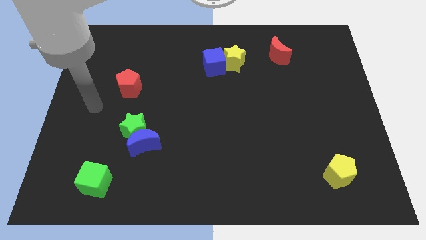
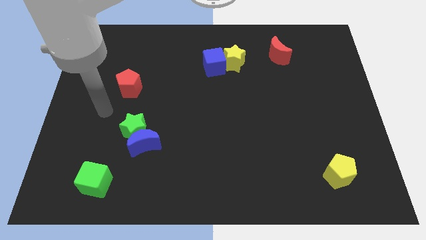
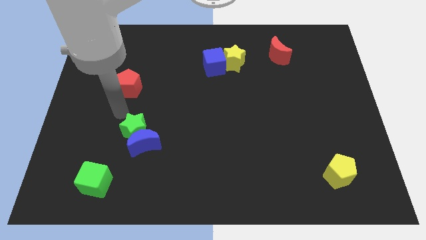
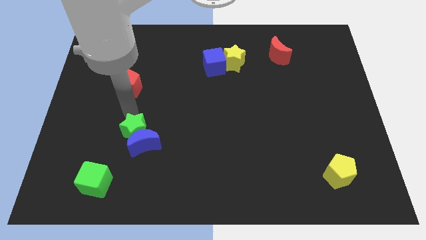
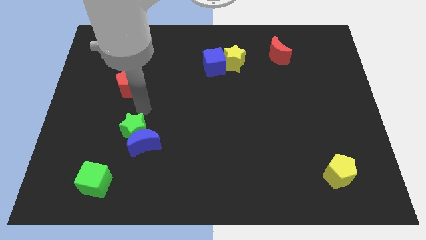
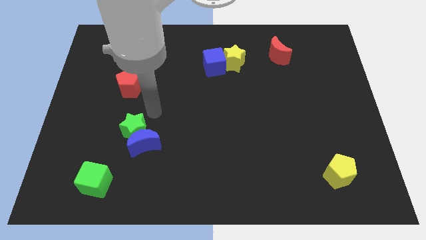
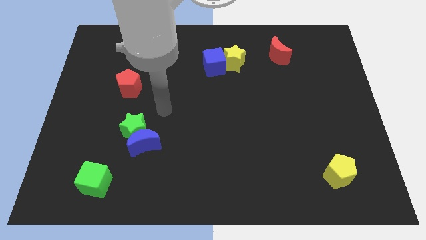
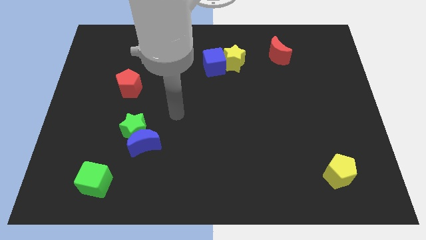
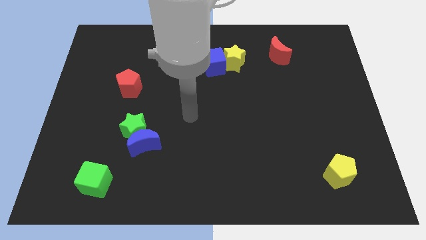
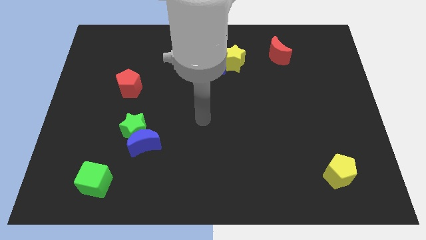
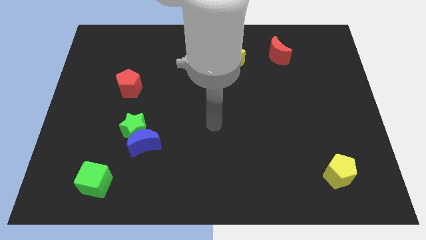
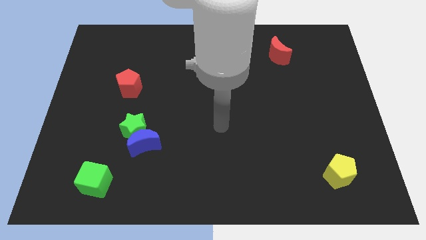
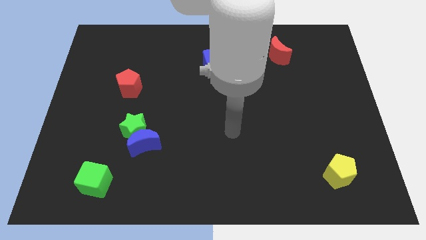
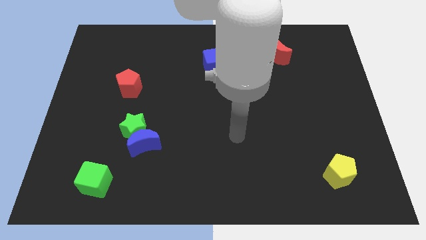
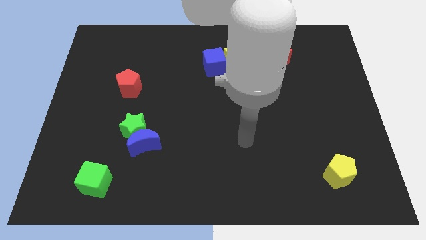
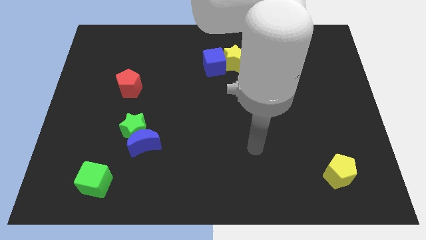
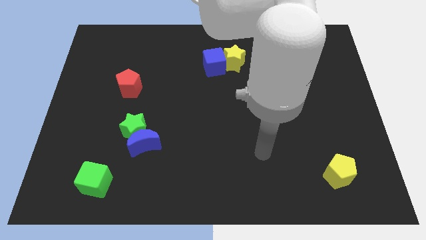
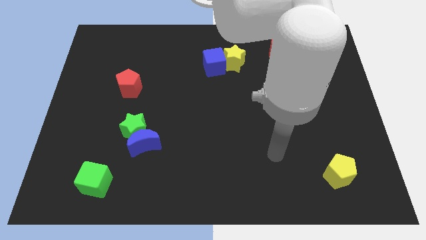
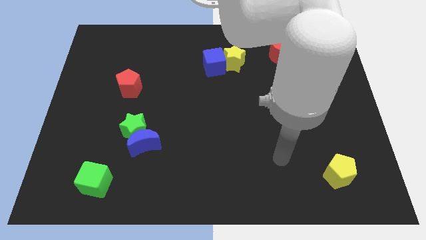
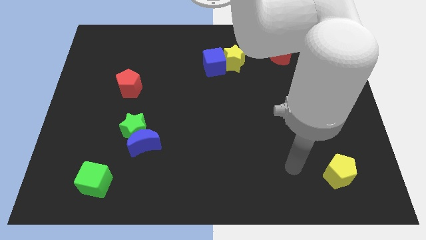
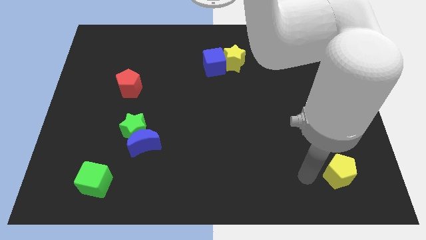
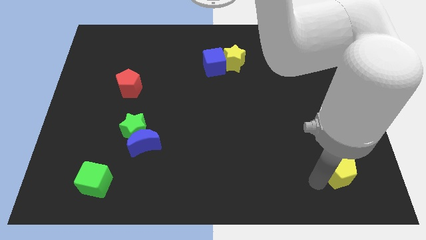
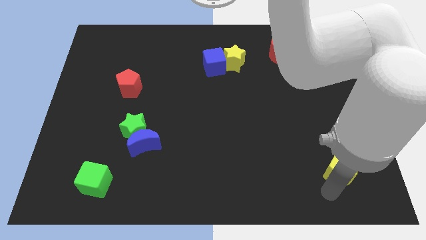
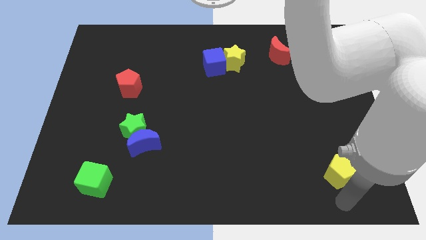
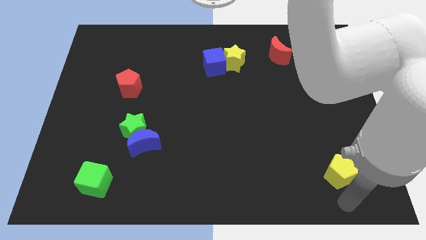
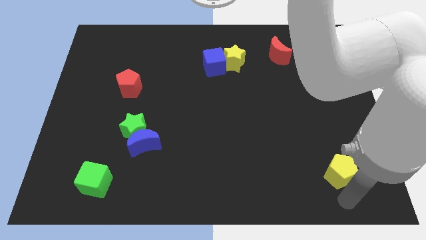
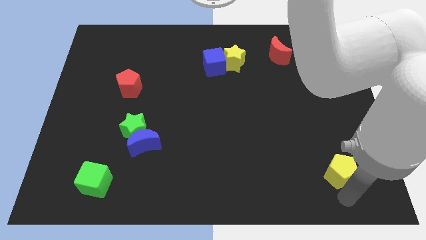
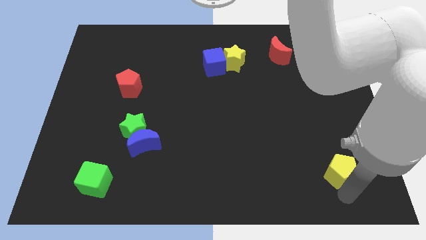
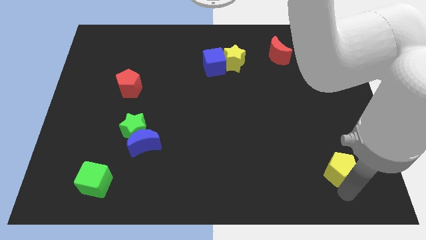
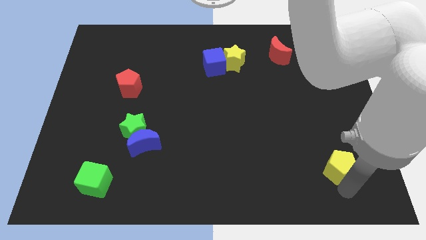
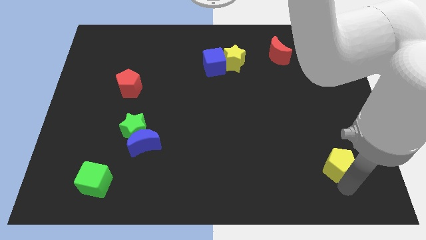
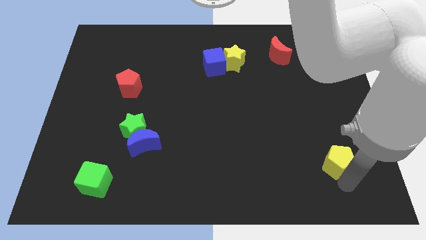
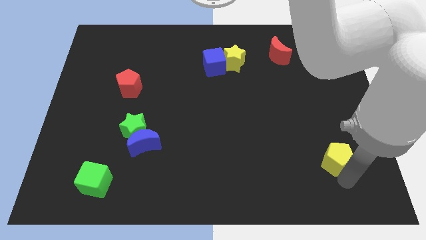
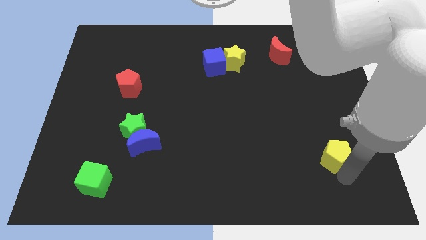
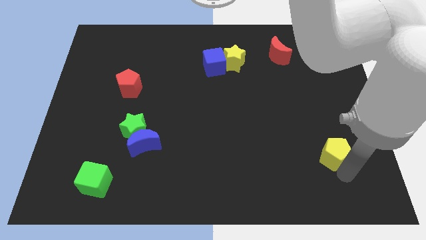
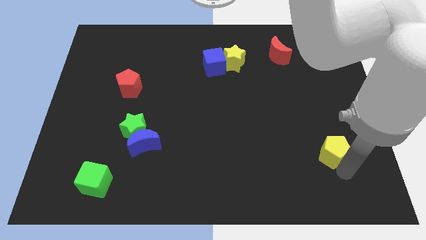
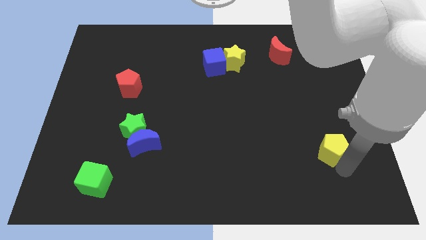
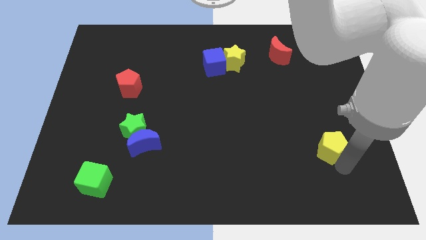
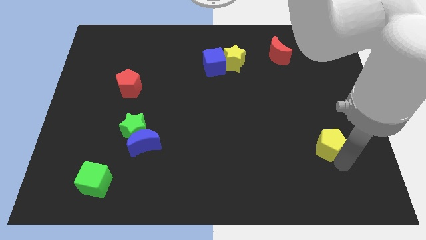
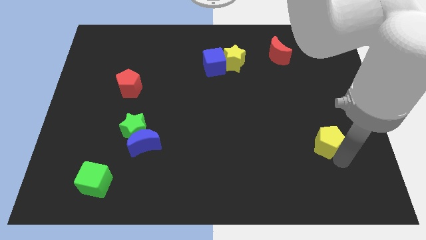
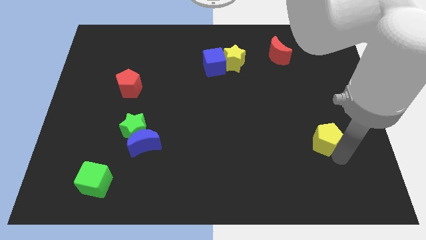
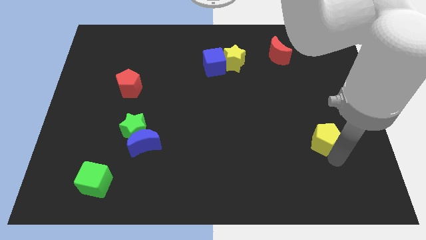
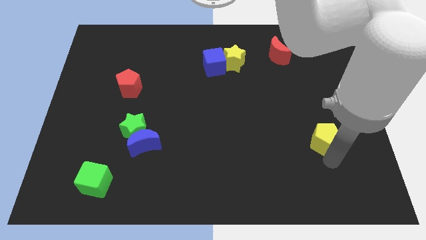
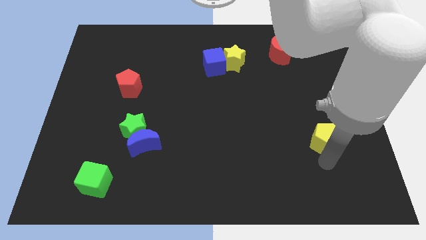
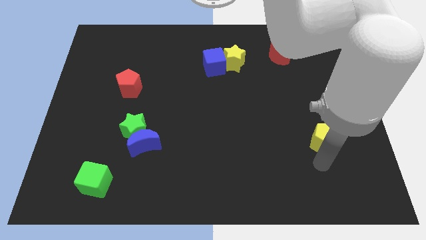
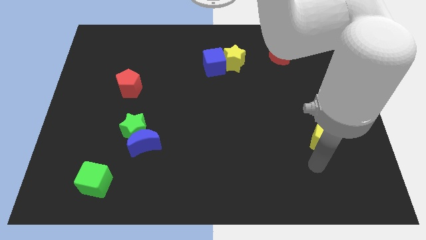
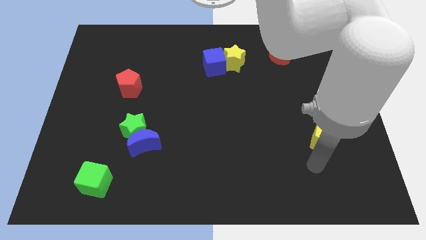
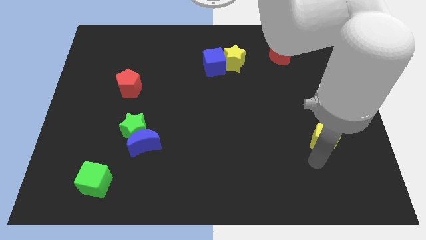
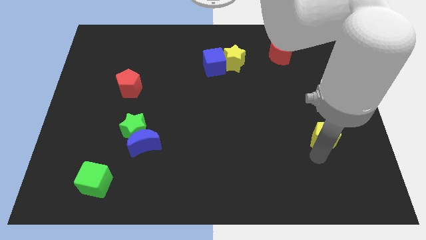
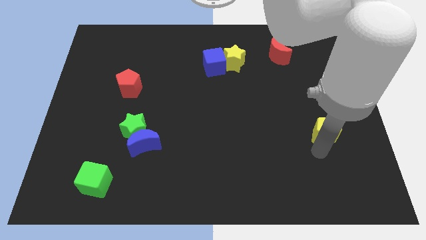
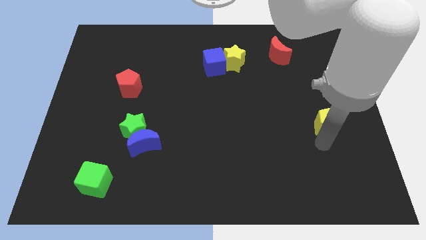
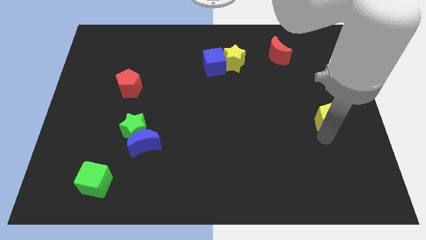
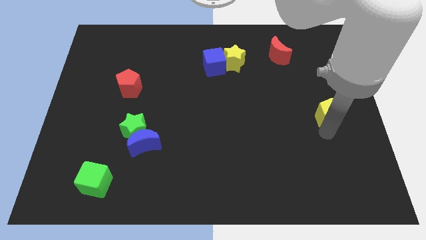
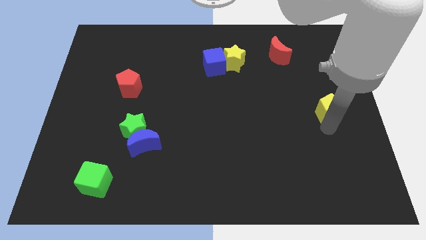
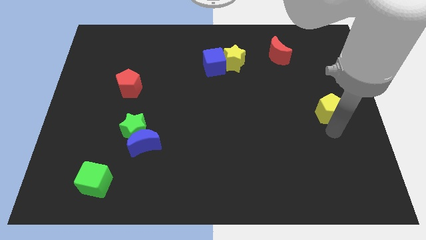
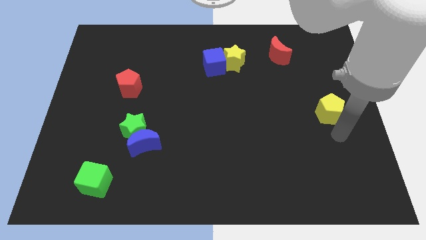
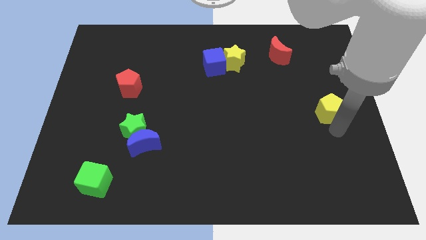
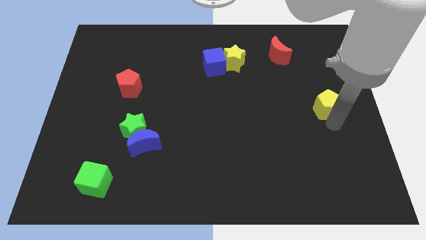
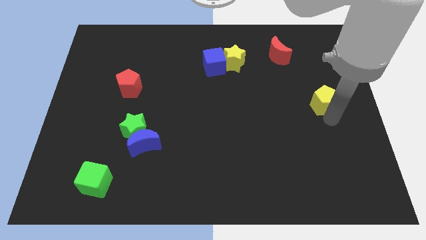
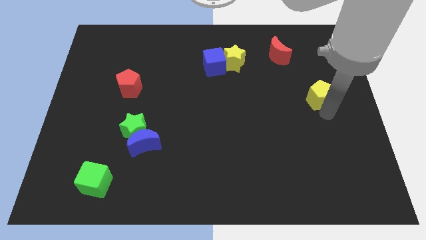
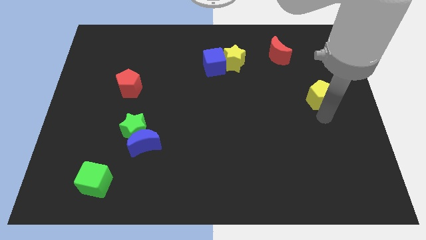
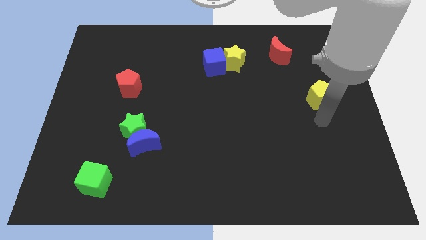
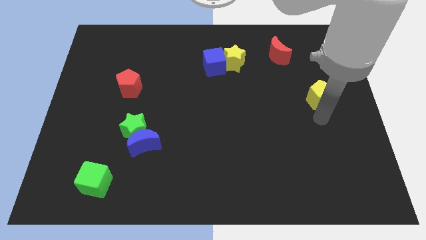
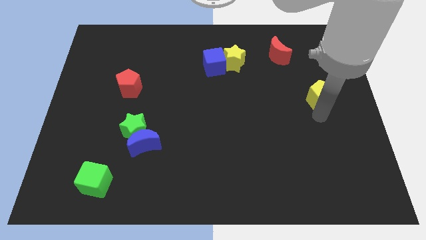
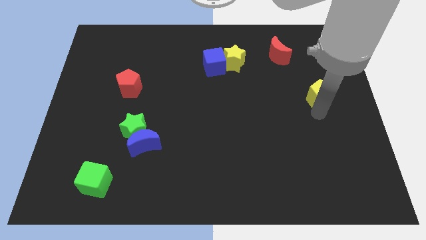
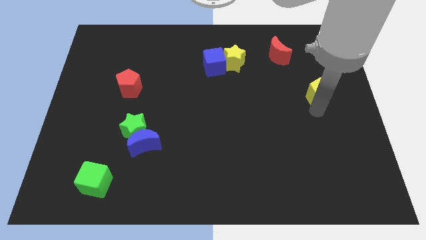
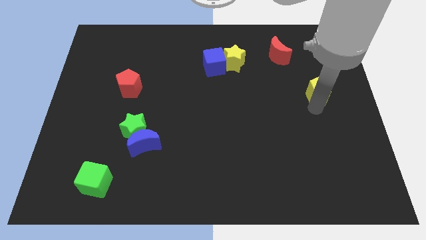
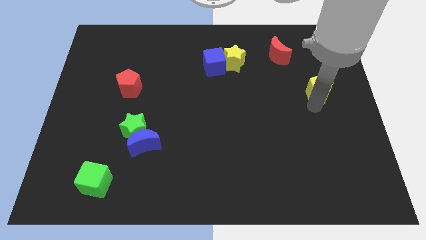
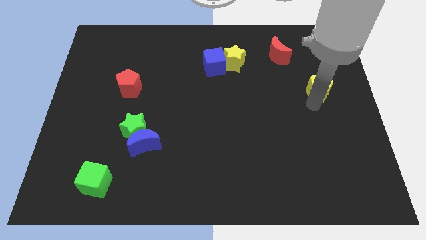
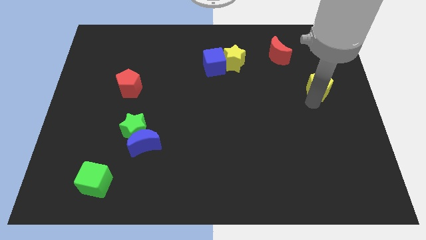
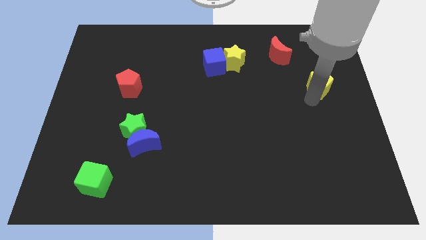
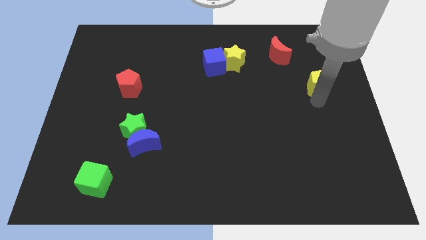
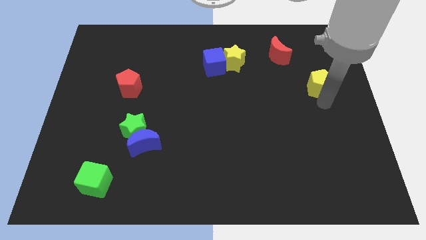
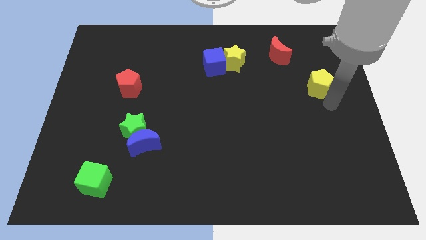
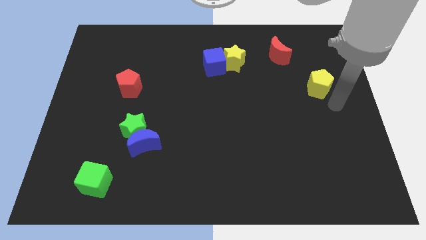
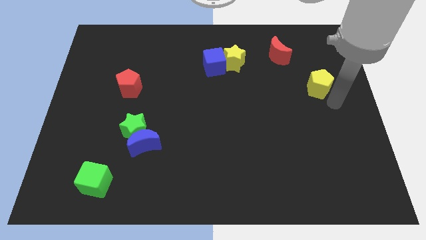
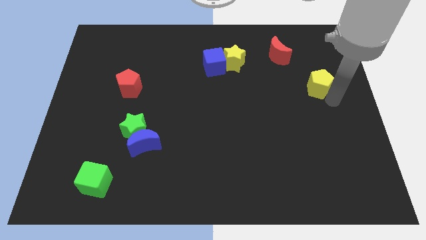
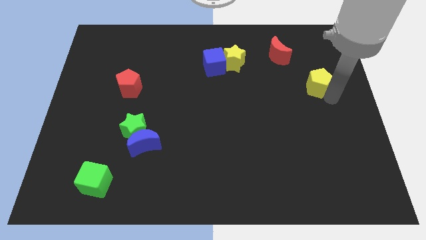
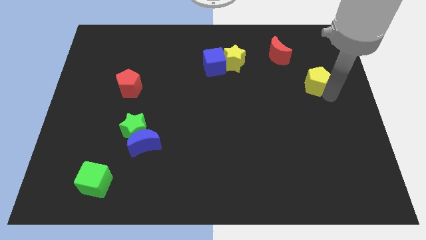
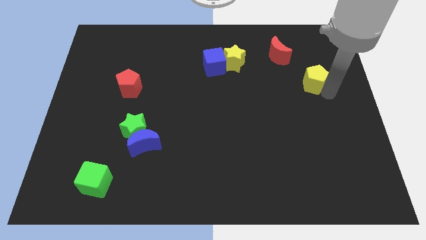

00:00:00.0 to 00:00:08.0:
slide the yellow pentagon to the bottom right side of the red moon

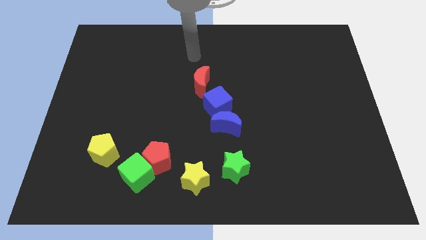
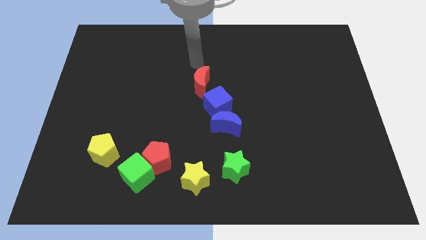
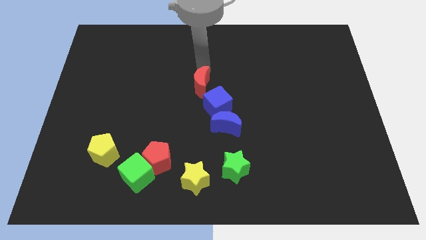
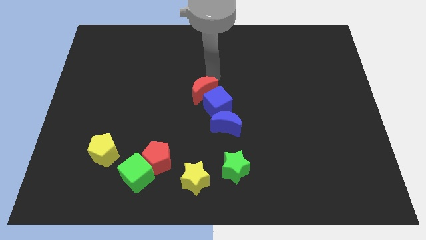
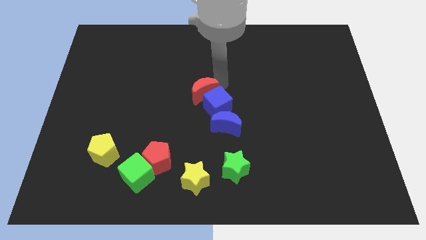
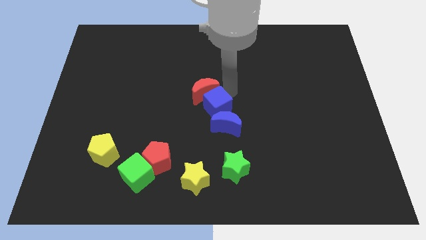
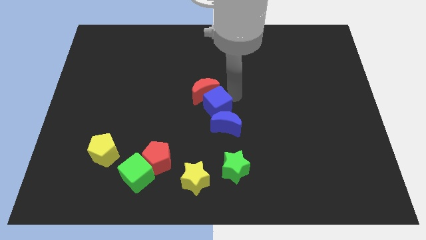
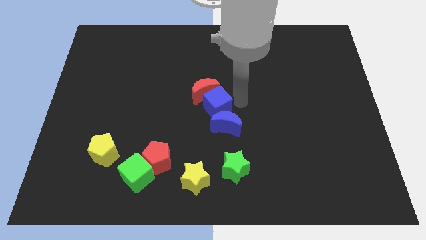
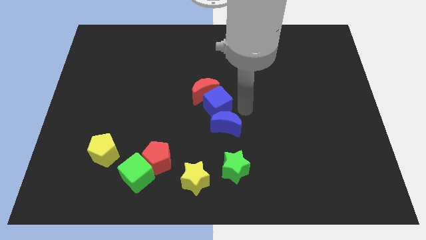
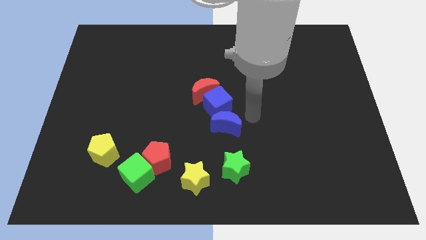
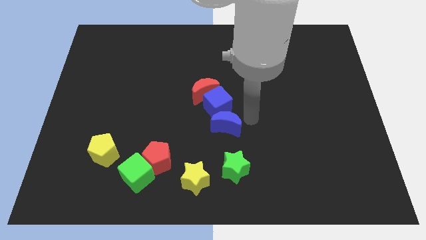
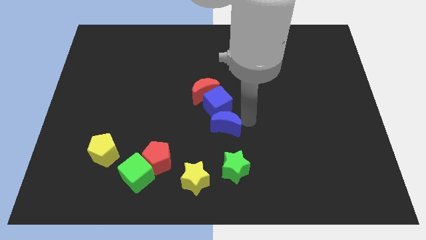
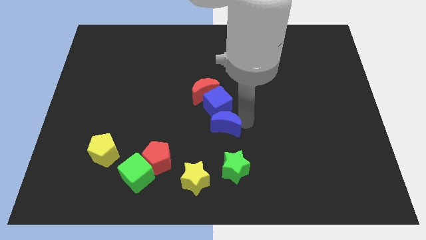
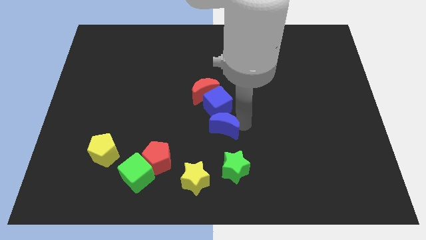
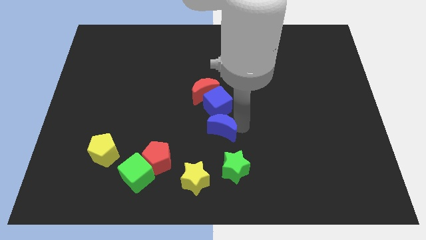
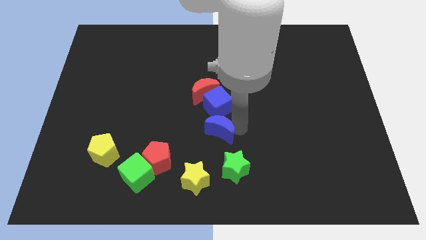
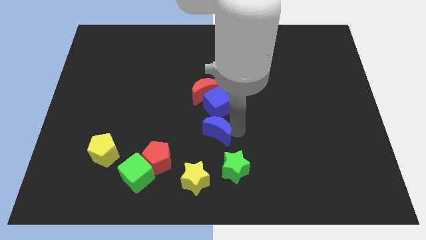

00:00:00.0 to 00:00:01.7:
put the blue moon to the top of the yellow star
